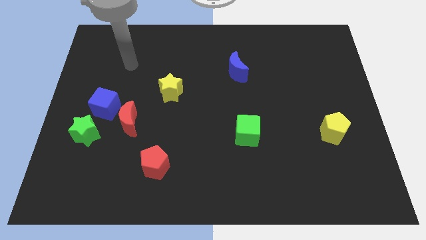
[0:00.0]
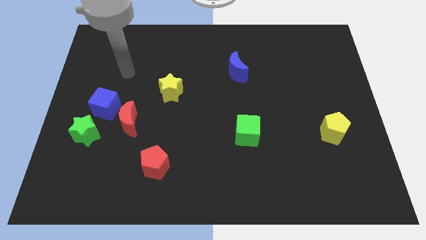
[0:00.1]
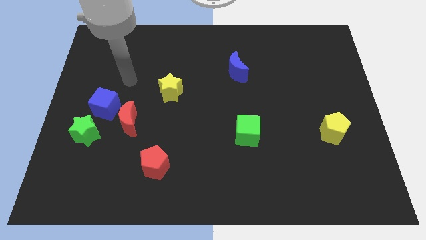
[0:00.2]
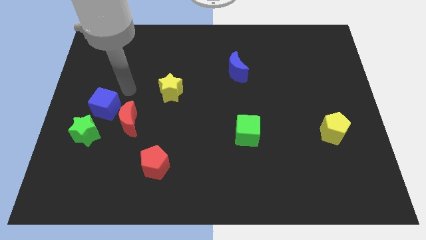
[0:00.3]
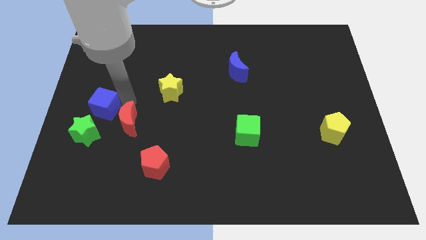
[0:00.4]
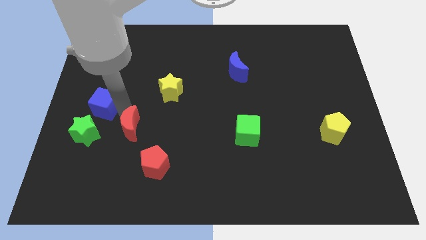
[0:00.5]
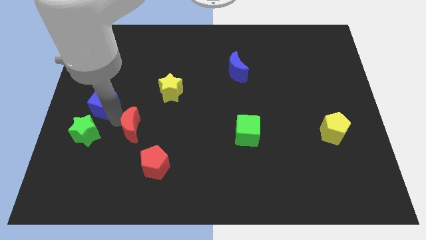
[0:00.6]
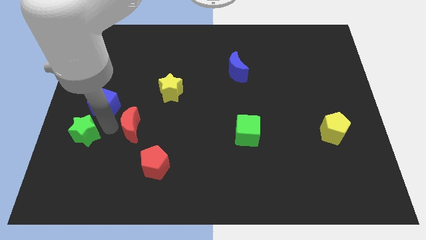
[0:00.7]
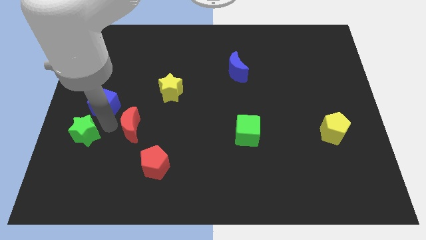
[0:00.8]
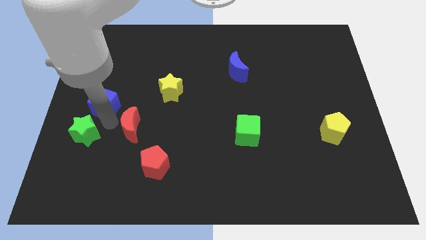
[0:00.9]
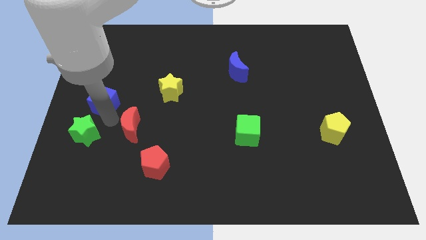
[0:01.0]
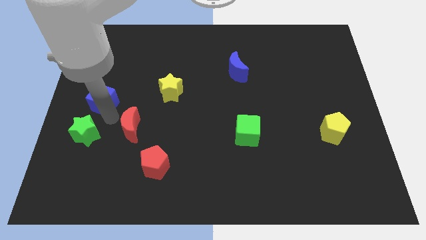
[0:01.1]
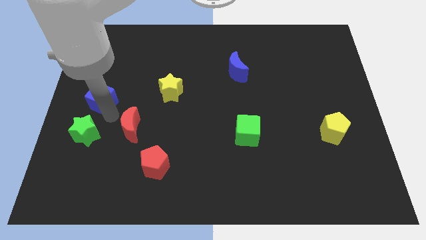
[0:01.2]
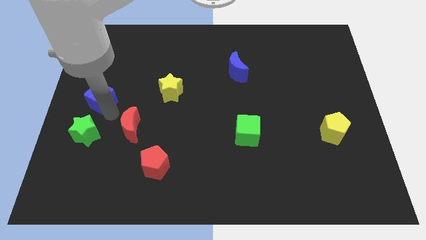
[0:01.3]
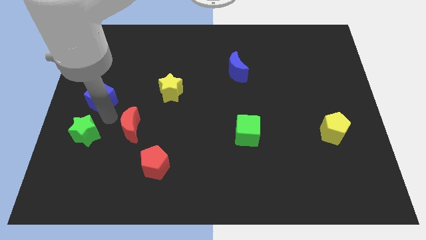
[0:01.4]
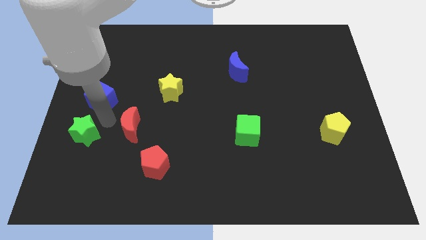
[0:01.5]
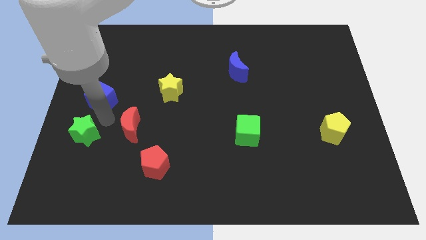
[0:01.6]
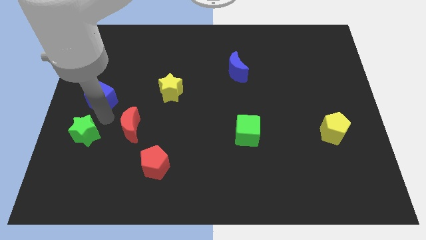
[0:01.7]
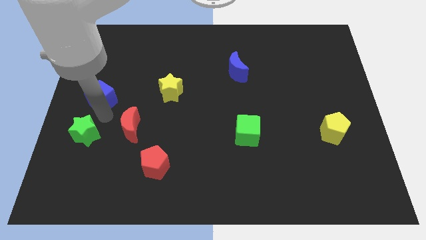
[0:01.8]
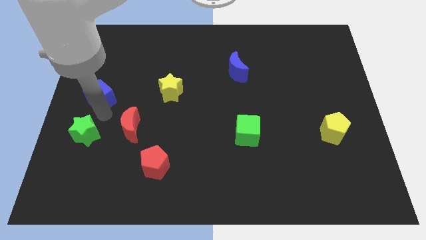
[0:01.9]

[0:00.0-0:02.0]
separate the blue cube from the red moon and green star

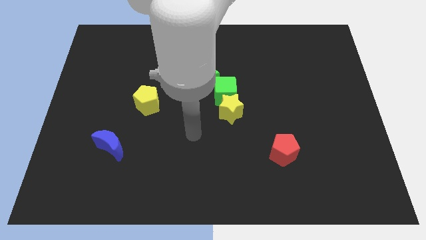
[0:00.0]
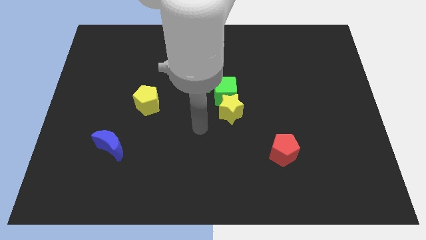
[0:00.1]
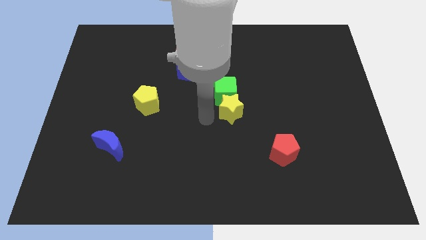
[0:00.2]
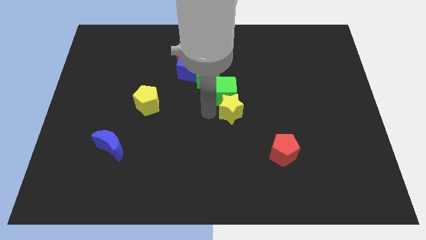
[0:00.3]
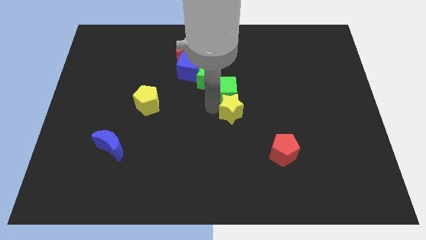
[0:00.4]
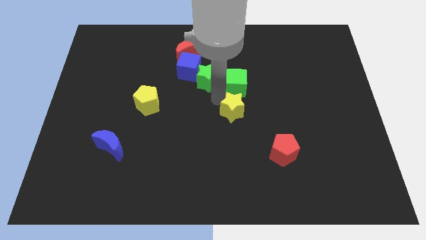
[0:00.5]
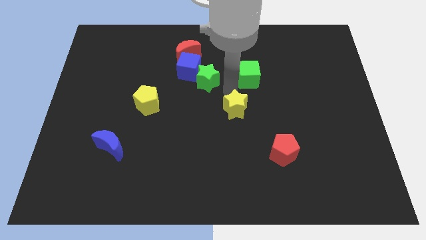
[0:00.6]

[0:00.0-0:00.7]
pull the yellow star apart from the green cube

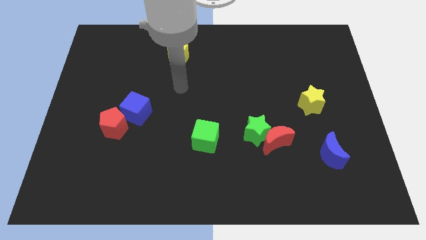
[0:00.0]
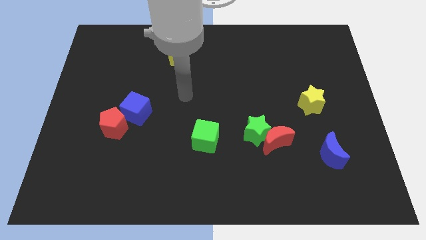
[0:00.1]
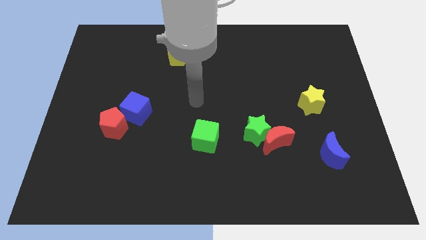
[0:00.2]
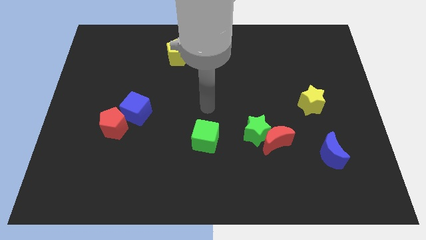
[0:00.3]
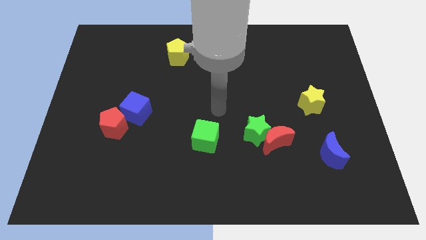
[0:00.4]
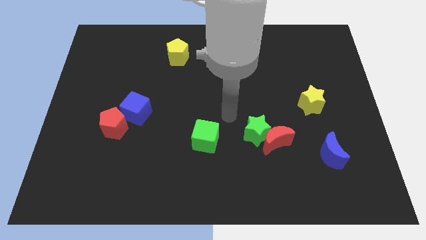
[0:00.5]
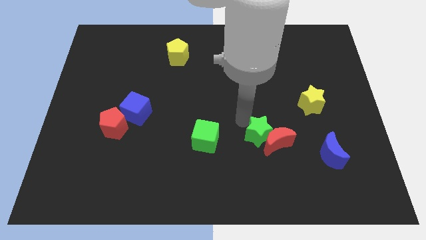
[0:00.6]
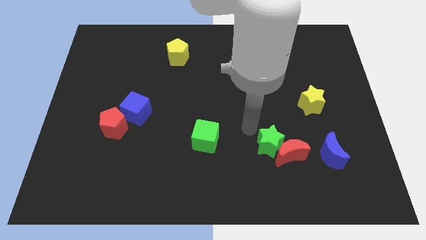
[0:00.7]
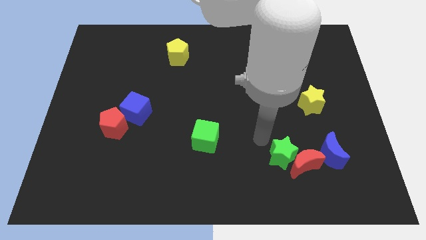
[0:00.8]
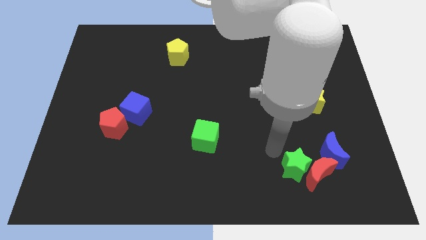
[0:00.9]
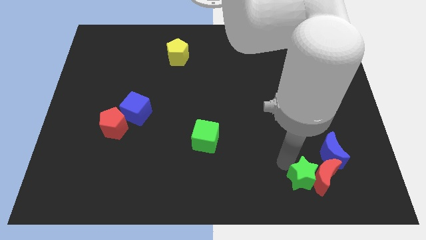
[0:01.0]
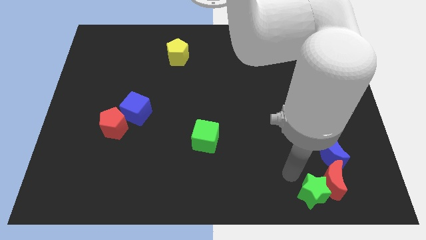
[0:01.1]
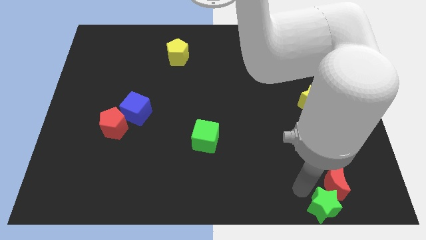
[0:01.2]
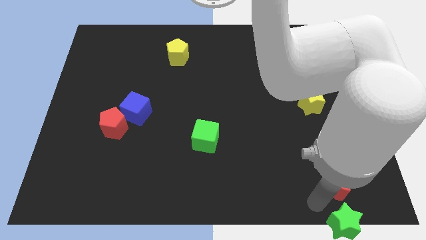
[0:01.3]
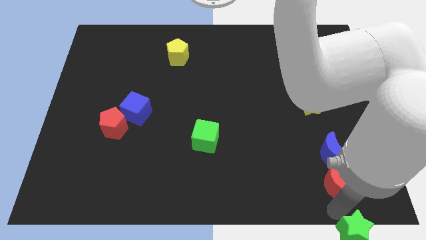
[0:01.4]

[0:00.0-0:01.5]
move the red moon away from the green star

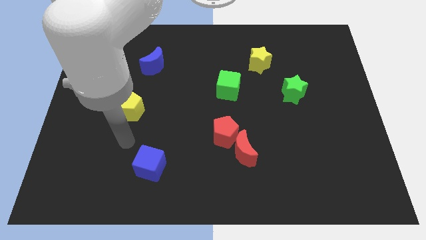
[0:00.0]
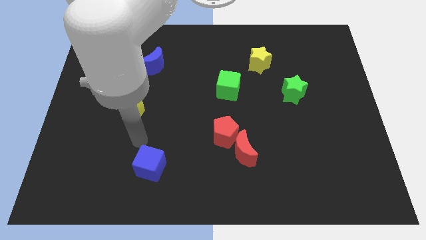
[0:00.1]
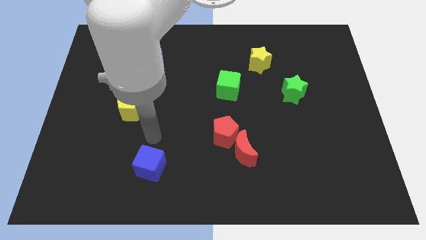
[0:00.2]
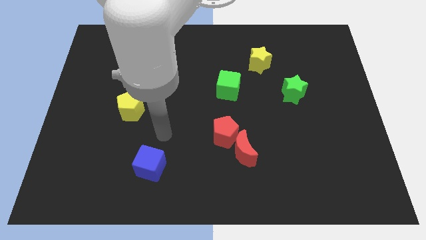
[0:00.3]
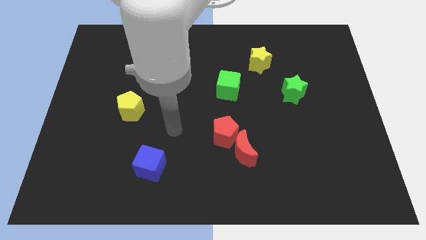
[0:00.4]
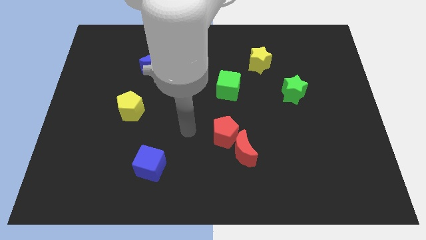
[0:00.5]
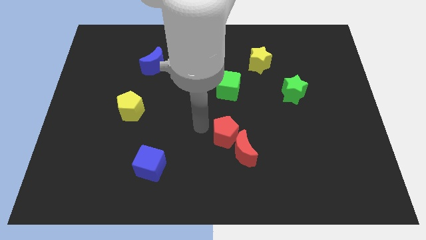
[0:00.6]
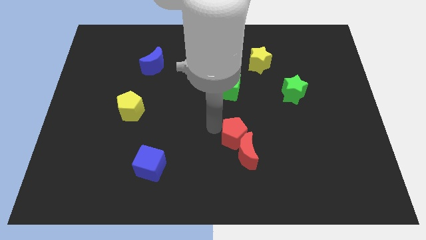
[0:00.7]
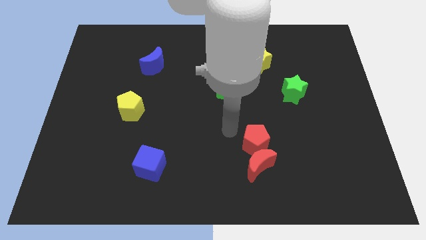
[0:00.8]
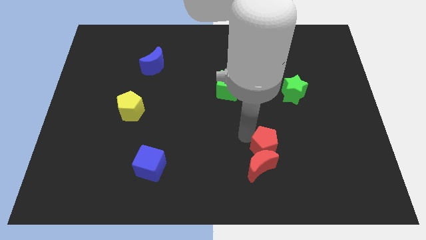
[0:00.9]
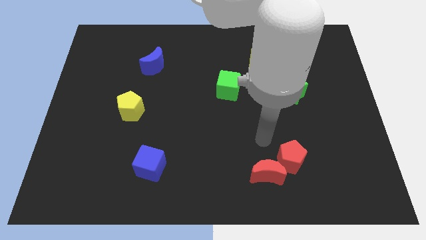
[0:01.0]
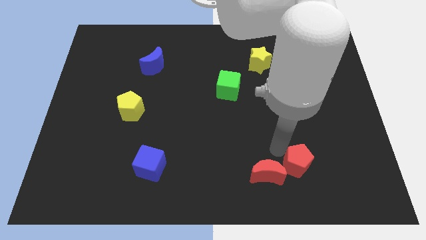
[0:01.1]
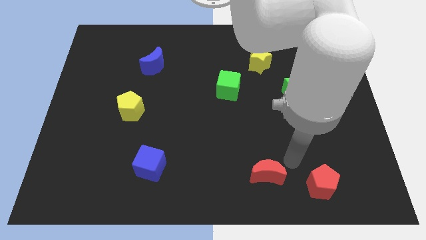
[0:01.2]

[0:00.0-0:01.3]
pull the red moon apart from the red pentagon

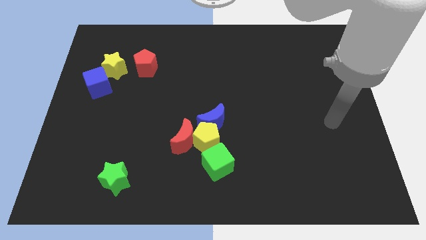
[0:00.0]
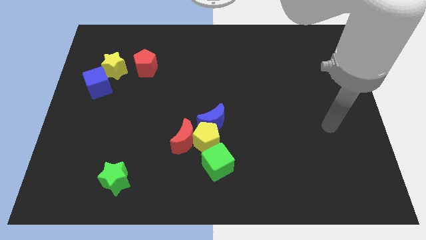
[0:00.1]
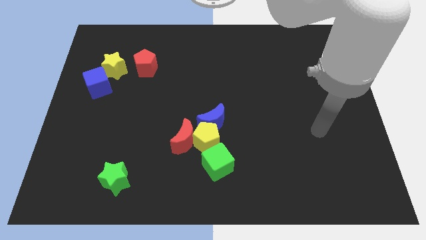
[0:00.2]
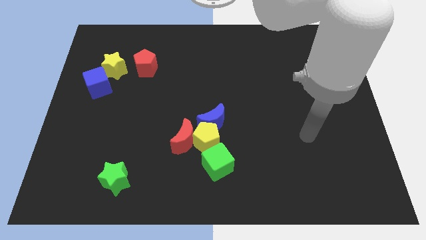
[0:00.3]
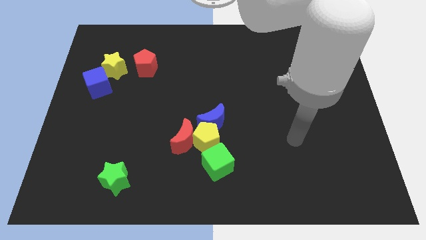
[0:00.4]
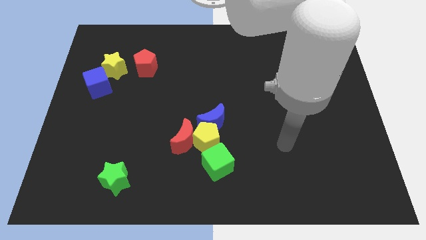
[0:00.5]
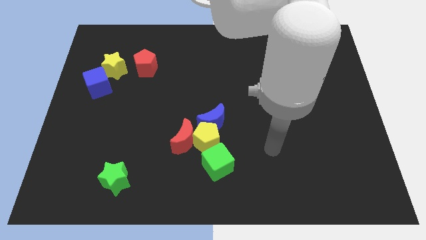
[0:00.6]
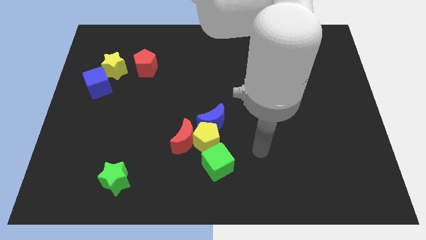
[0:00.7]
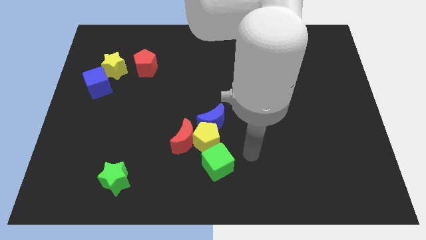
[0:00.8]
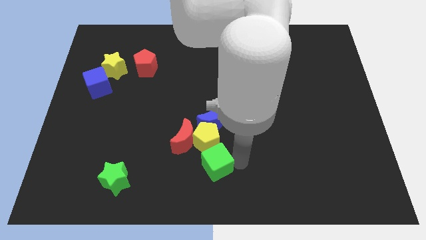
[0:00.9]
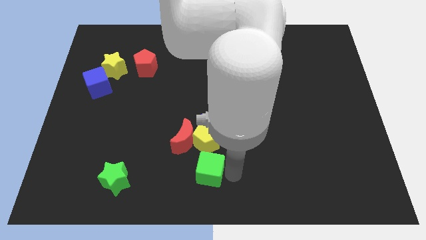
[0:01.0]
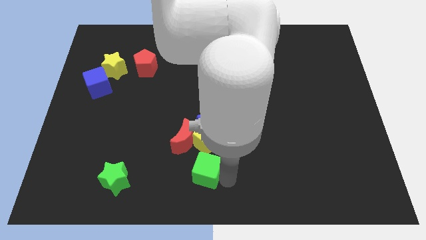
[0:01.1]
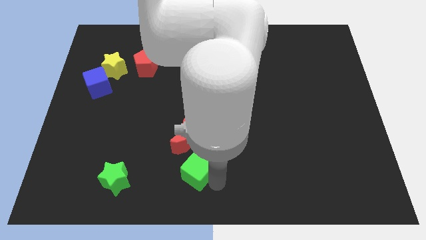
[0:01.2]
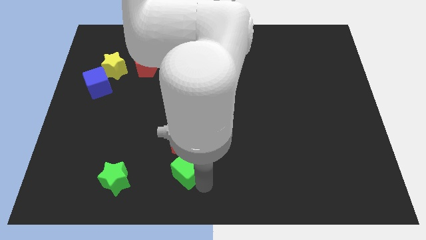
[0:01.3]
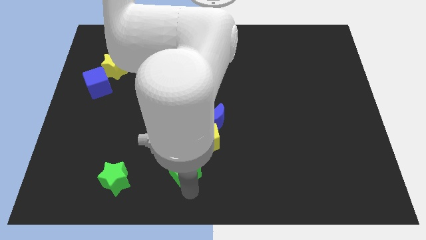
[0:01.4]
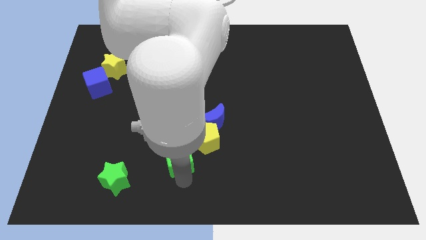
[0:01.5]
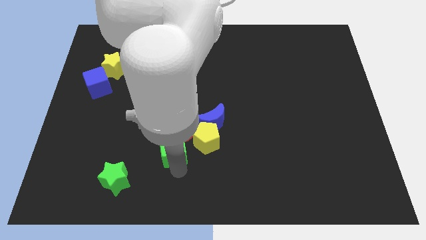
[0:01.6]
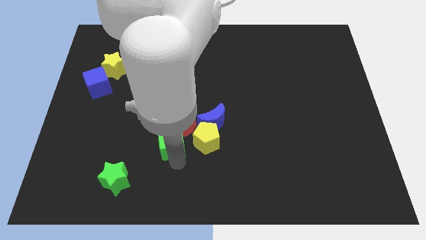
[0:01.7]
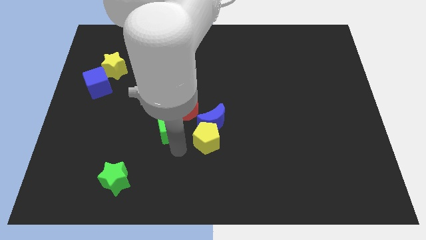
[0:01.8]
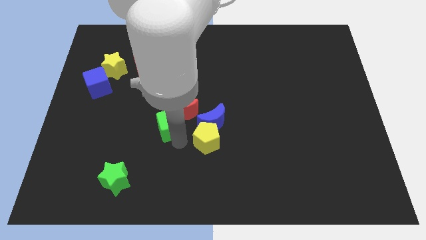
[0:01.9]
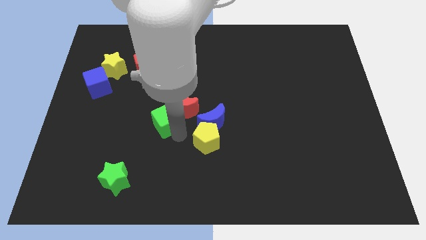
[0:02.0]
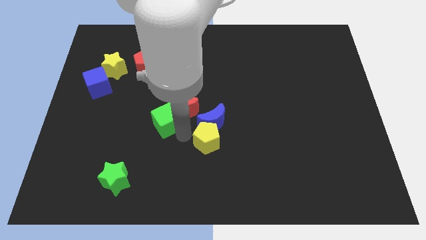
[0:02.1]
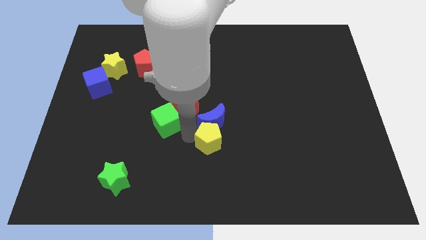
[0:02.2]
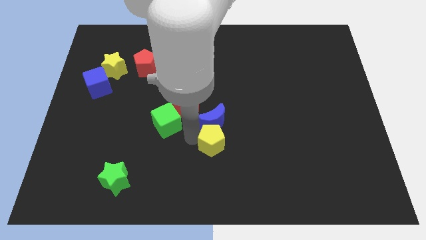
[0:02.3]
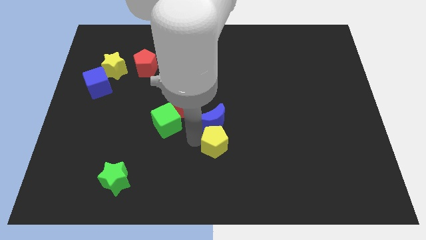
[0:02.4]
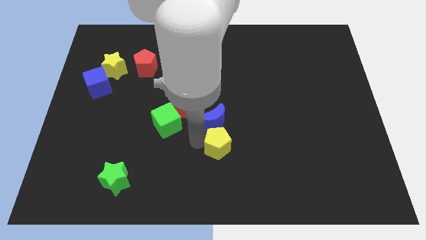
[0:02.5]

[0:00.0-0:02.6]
separate the yellow pentagon from the blue moon, red moon, and green cube

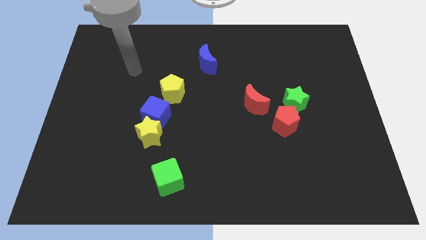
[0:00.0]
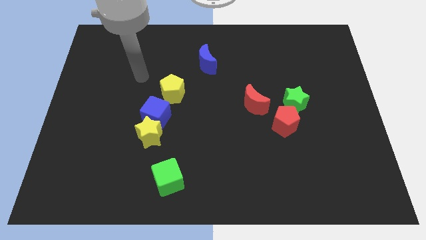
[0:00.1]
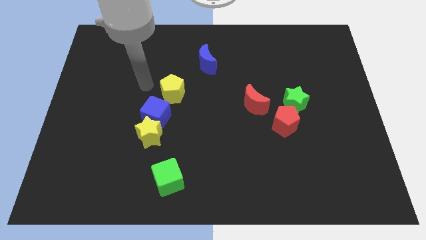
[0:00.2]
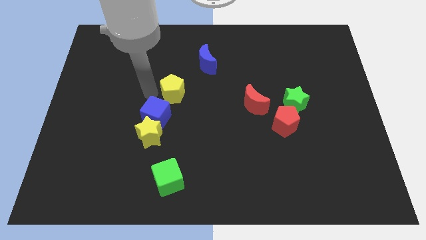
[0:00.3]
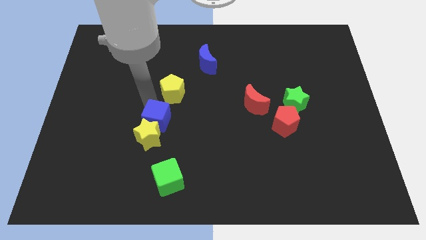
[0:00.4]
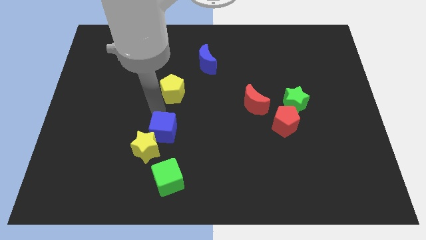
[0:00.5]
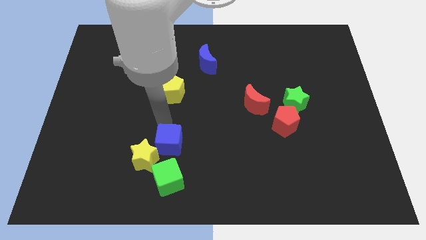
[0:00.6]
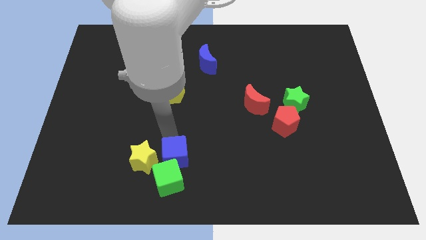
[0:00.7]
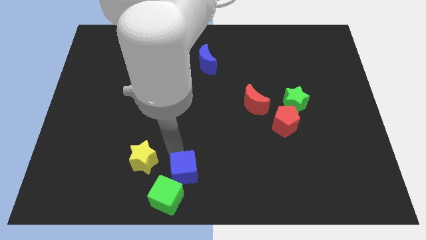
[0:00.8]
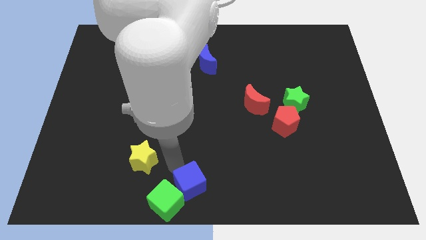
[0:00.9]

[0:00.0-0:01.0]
move the yellow star away from the blue cube

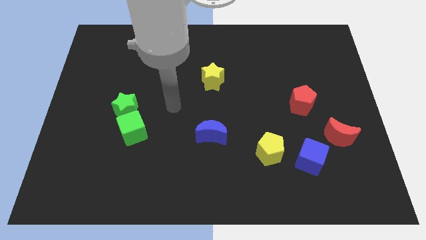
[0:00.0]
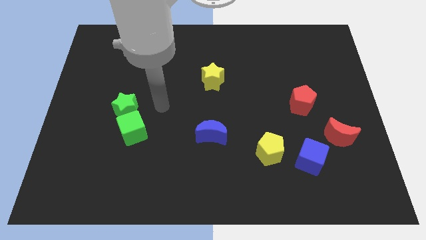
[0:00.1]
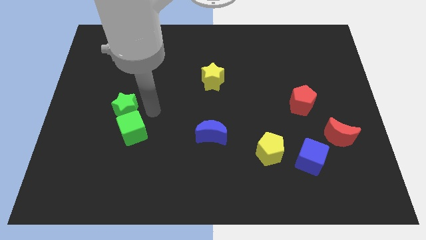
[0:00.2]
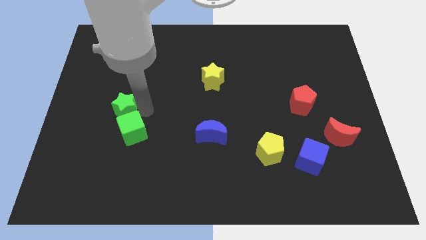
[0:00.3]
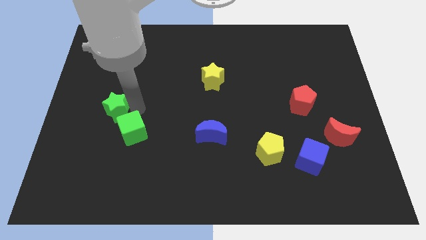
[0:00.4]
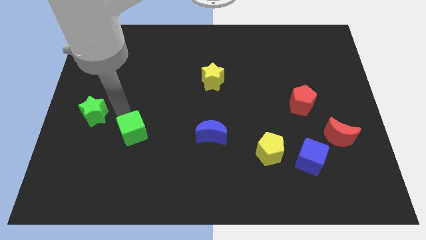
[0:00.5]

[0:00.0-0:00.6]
pull the green cube apart from the green star
